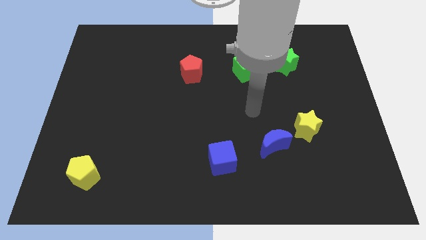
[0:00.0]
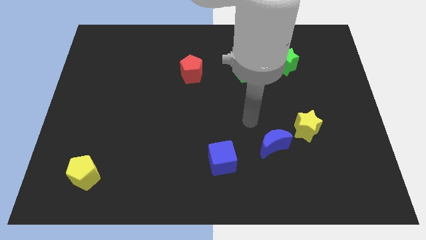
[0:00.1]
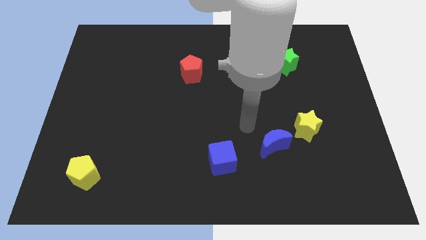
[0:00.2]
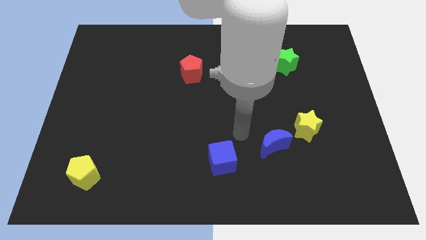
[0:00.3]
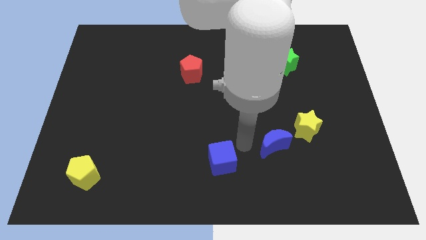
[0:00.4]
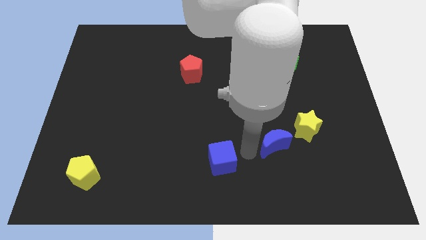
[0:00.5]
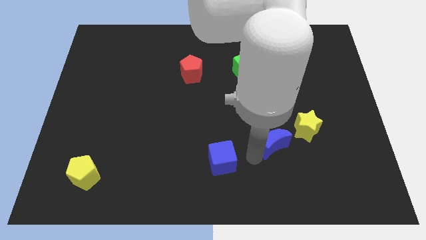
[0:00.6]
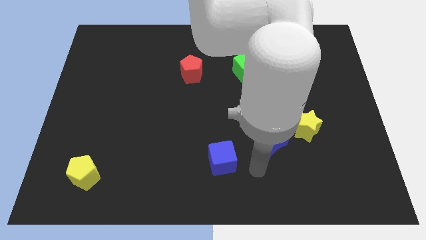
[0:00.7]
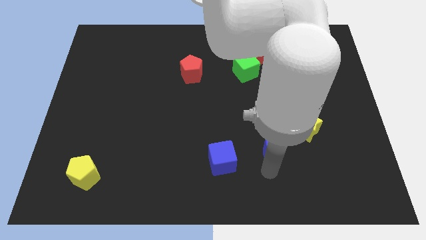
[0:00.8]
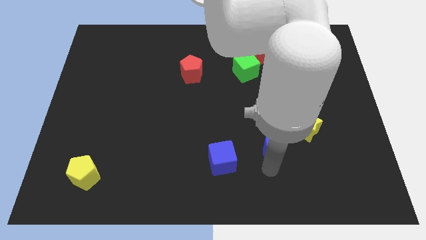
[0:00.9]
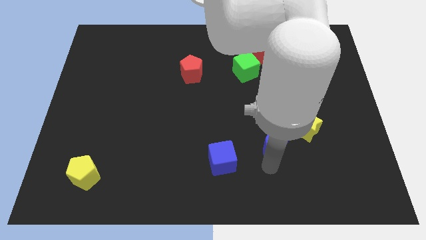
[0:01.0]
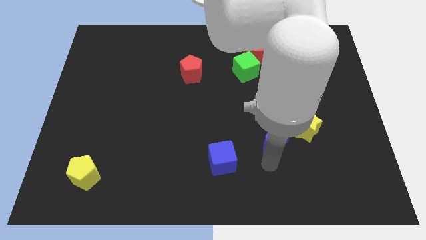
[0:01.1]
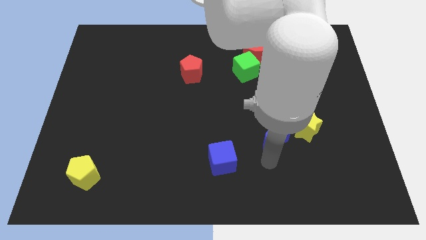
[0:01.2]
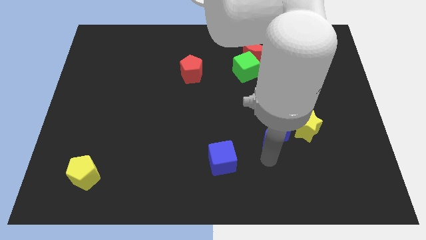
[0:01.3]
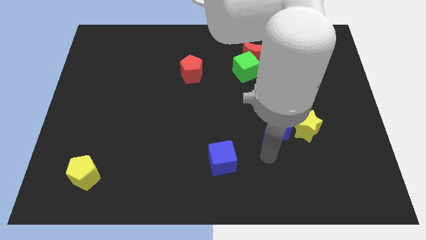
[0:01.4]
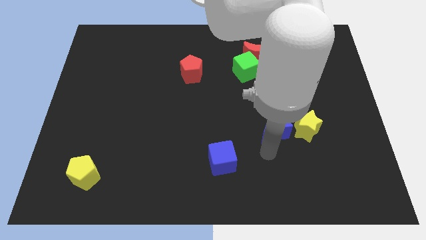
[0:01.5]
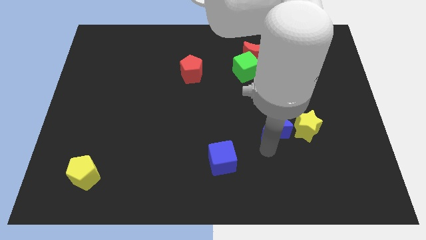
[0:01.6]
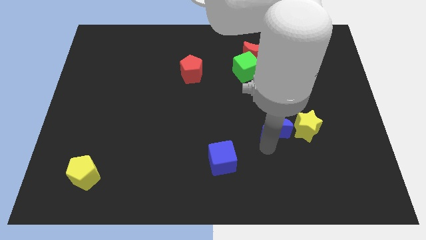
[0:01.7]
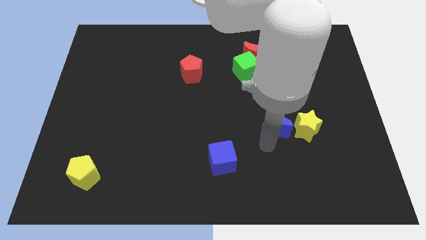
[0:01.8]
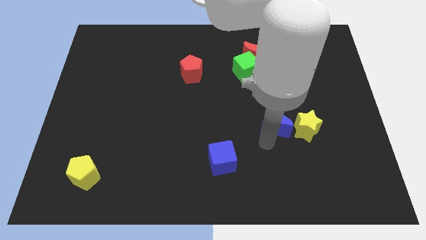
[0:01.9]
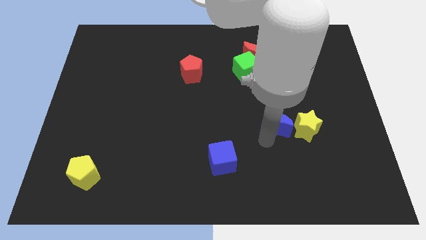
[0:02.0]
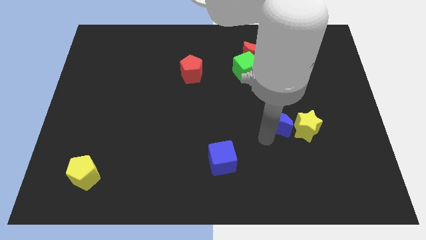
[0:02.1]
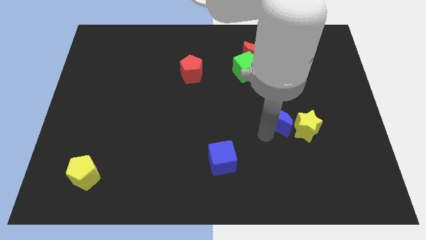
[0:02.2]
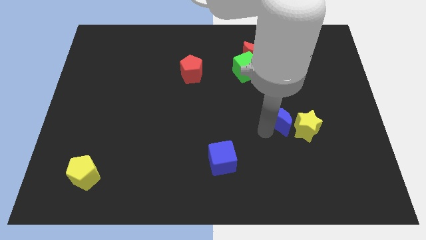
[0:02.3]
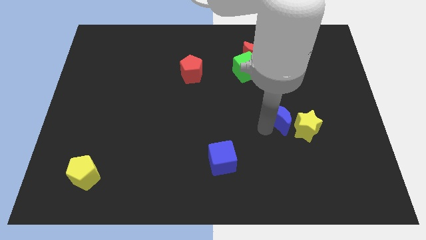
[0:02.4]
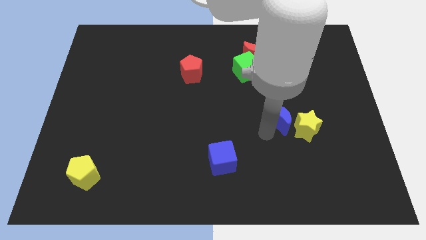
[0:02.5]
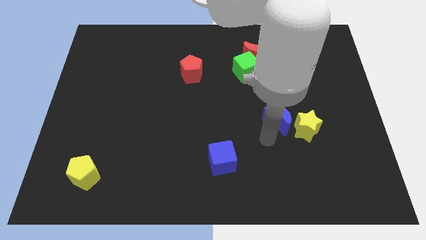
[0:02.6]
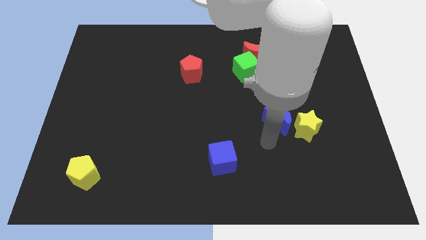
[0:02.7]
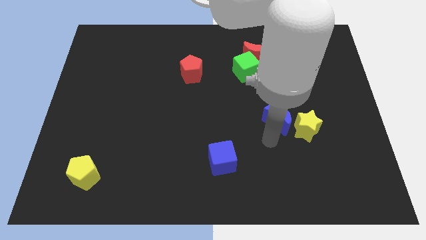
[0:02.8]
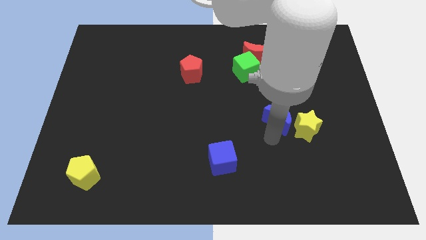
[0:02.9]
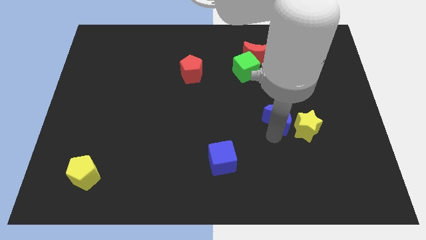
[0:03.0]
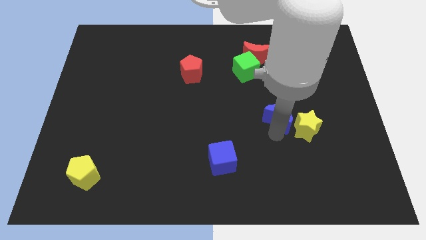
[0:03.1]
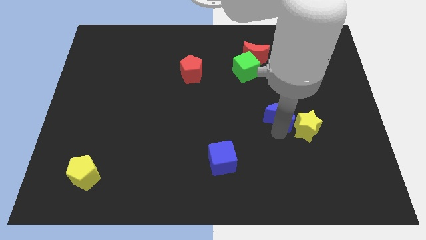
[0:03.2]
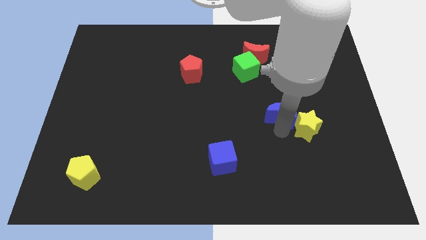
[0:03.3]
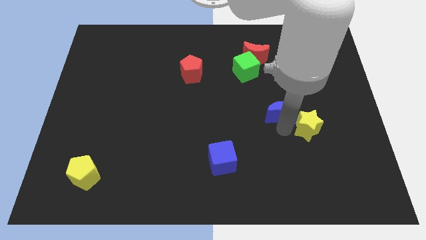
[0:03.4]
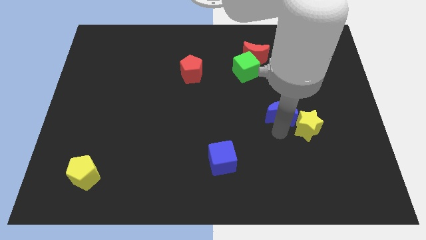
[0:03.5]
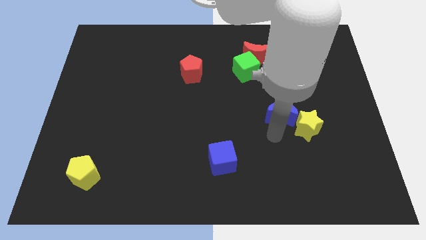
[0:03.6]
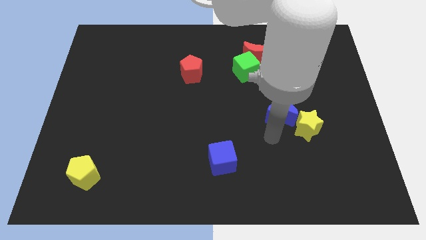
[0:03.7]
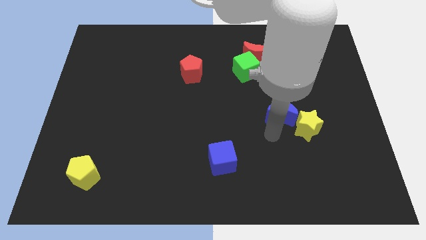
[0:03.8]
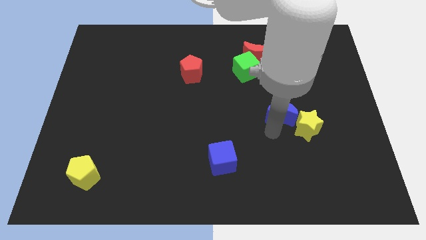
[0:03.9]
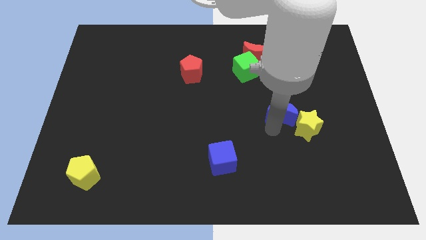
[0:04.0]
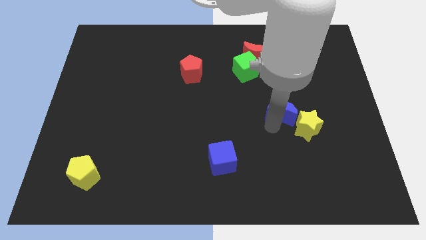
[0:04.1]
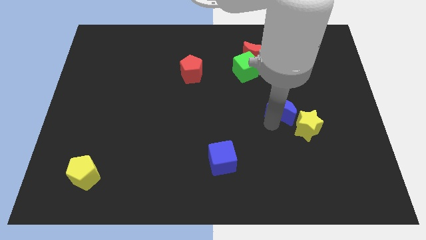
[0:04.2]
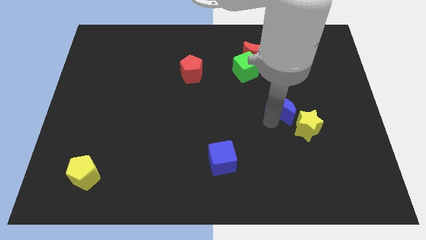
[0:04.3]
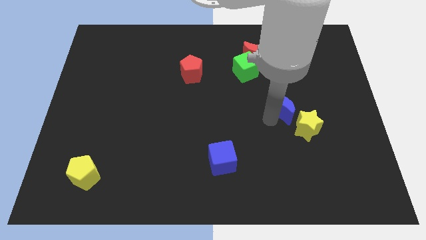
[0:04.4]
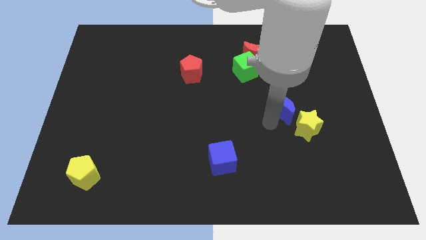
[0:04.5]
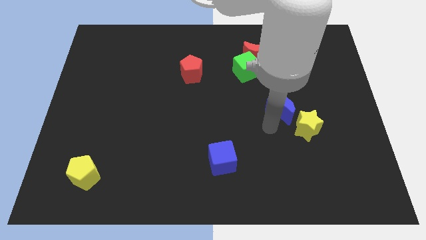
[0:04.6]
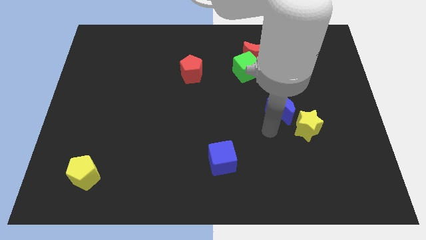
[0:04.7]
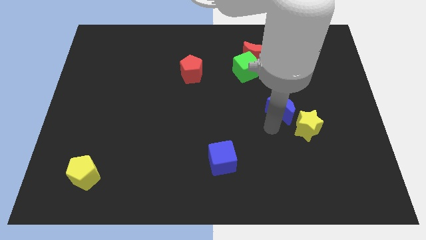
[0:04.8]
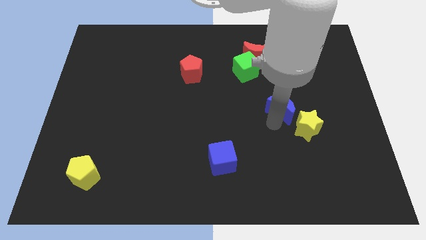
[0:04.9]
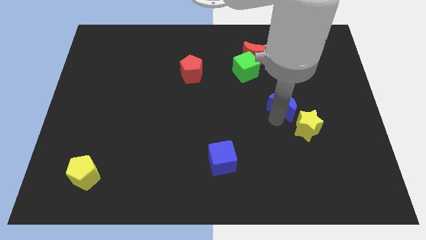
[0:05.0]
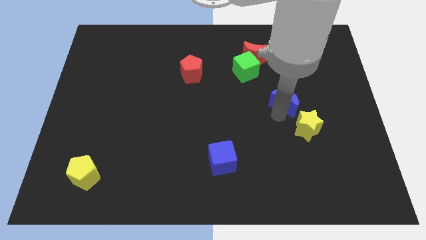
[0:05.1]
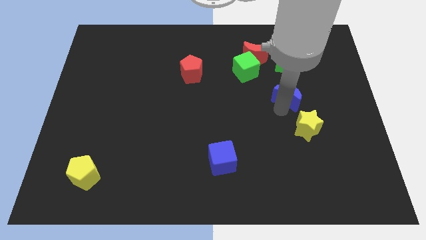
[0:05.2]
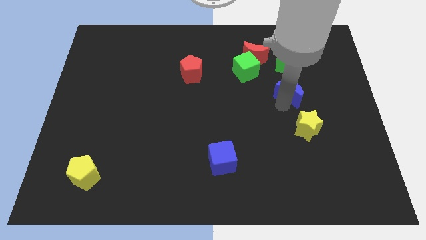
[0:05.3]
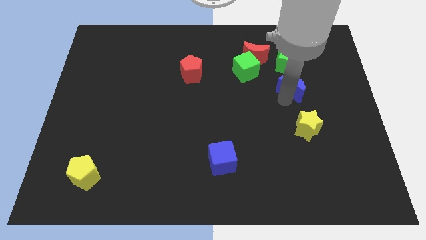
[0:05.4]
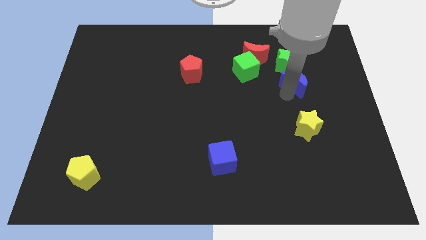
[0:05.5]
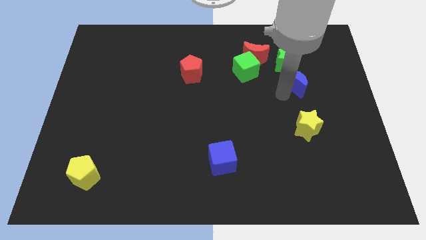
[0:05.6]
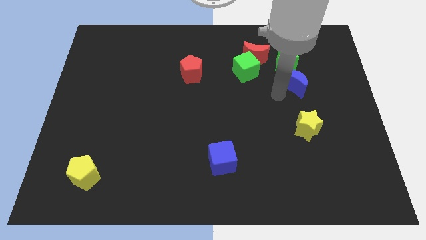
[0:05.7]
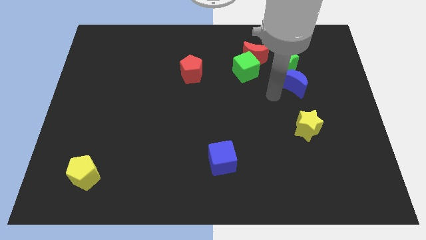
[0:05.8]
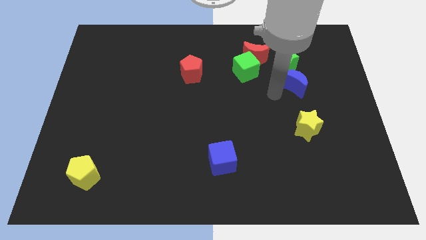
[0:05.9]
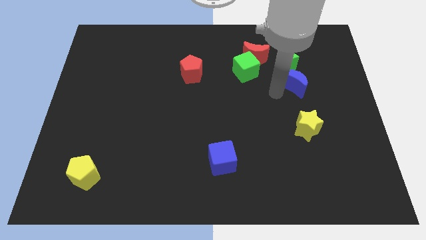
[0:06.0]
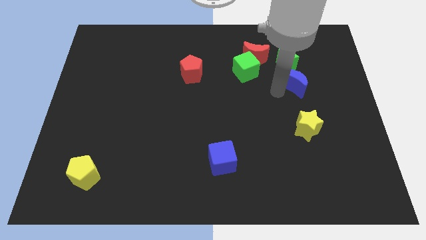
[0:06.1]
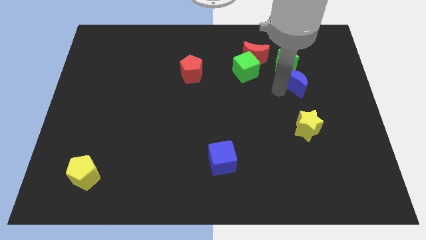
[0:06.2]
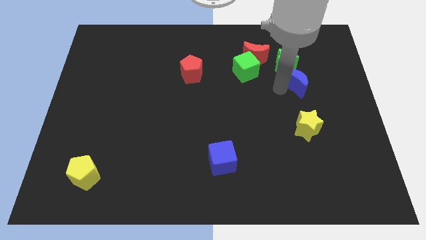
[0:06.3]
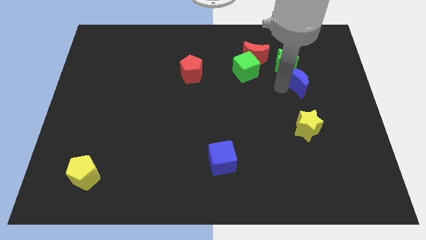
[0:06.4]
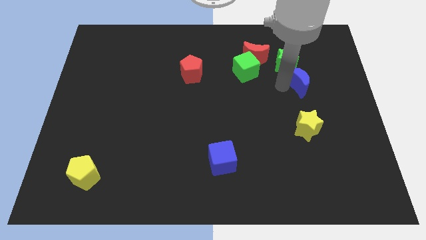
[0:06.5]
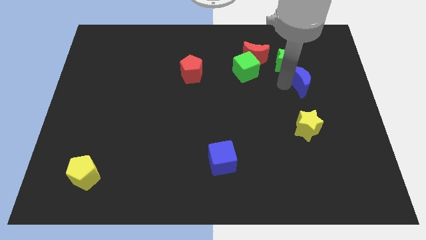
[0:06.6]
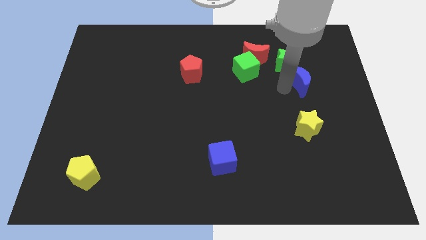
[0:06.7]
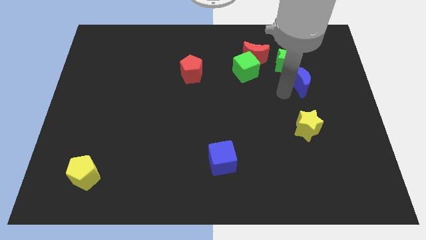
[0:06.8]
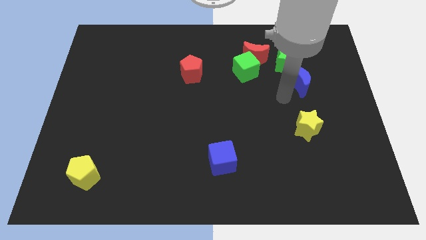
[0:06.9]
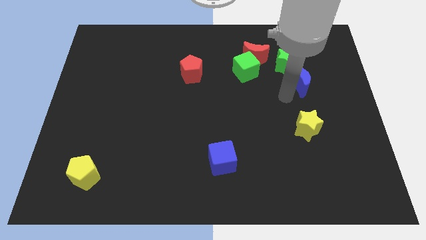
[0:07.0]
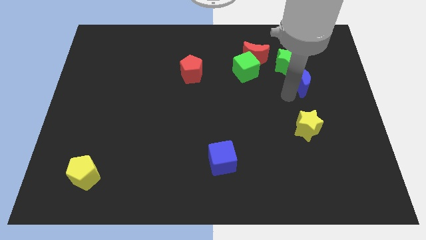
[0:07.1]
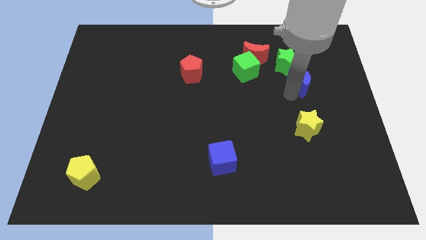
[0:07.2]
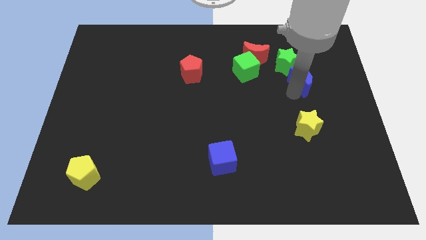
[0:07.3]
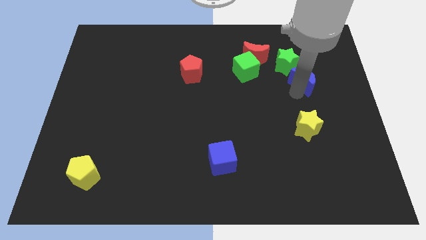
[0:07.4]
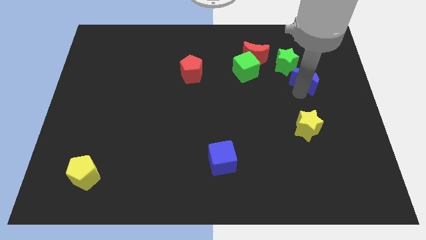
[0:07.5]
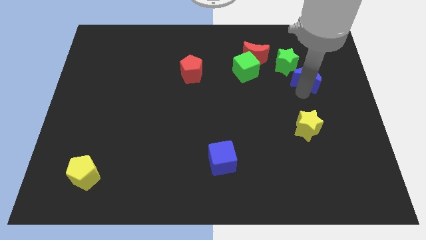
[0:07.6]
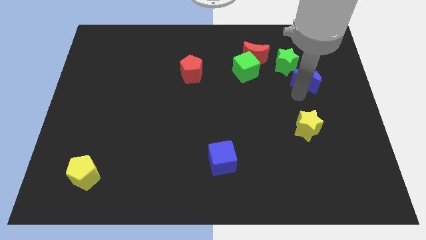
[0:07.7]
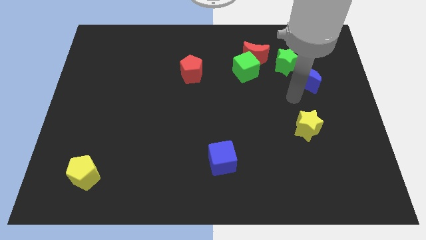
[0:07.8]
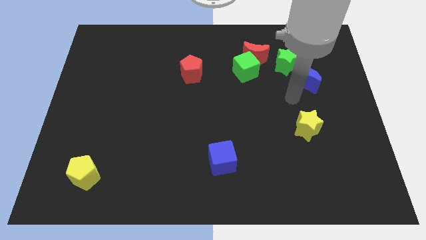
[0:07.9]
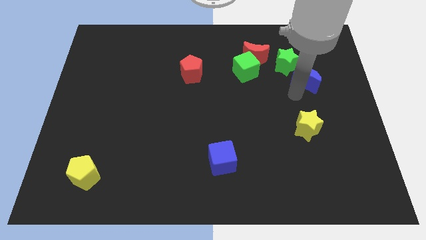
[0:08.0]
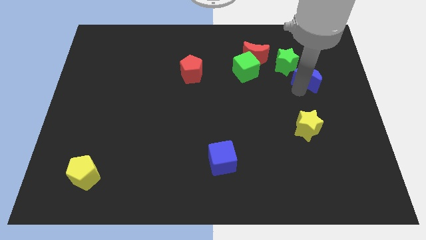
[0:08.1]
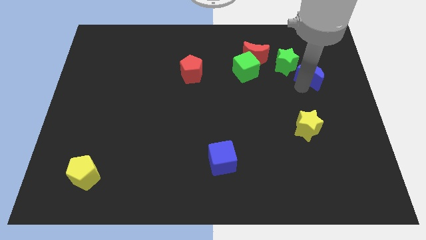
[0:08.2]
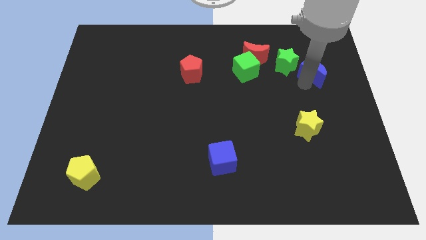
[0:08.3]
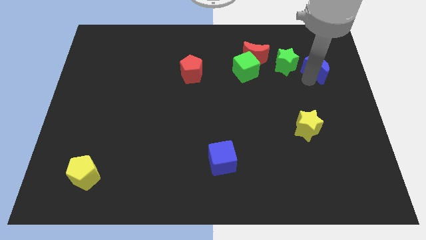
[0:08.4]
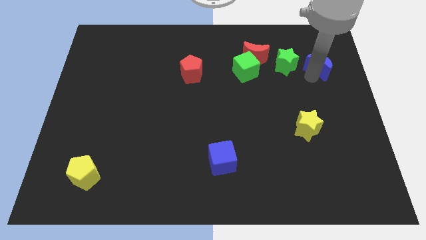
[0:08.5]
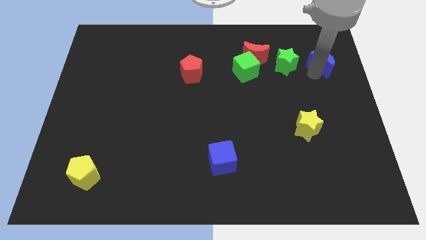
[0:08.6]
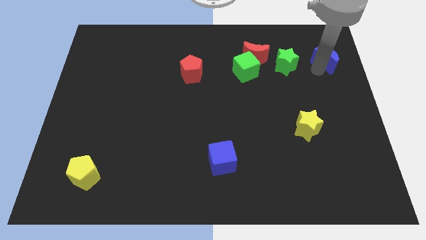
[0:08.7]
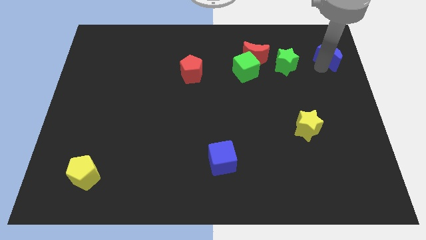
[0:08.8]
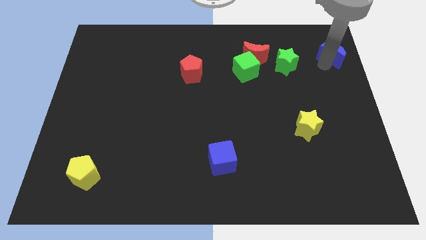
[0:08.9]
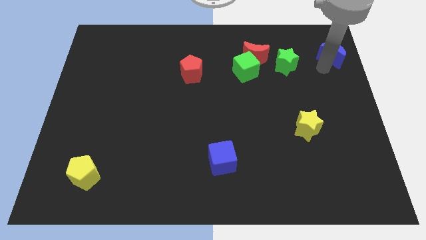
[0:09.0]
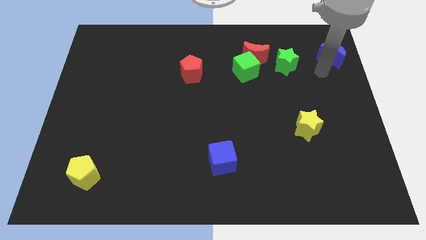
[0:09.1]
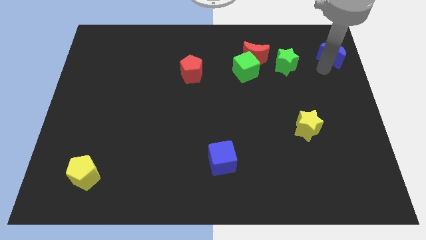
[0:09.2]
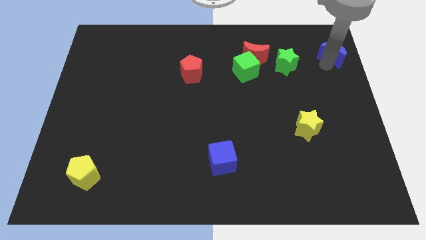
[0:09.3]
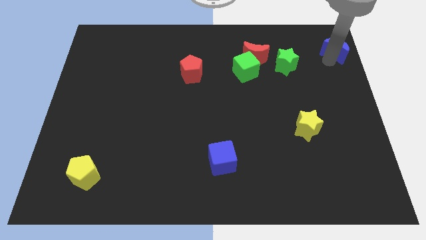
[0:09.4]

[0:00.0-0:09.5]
slide the blue moon to the upper right corner
